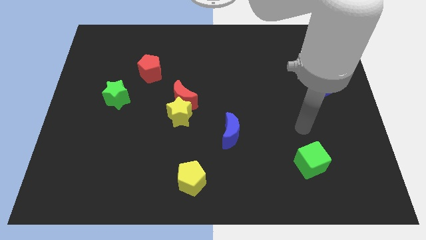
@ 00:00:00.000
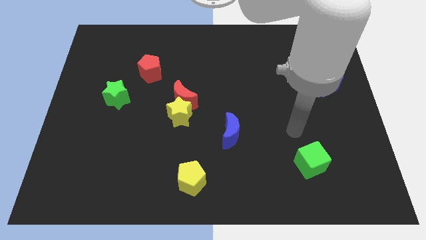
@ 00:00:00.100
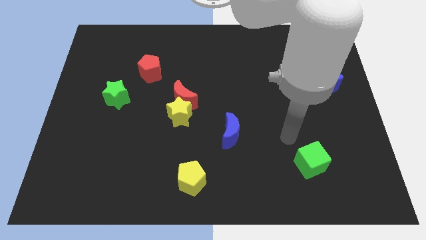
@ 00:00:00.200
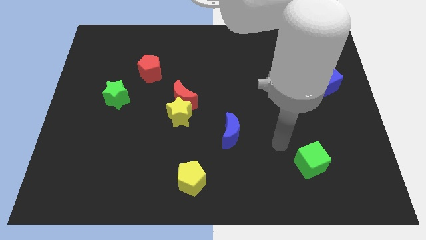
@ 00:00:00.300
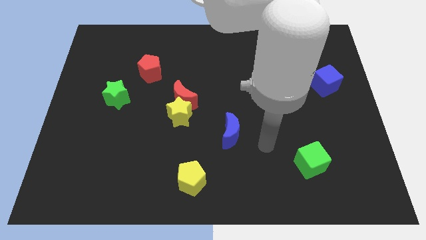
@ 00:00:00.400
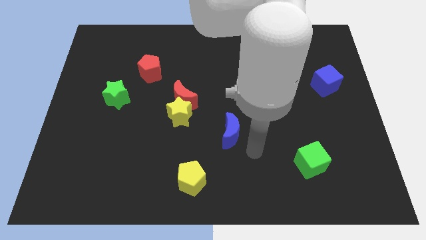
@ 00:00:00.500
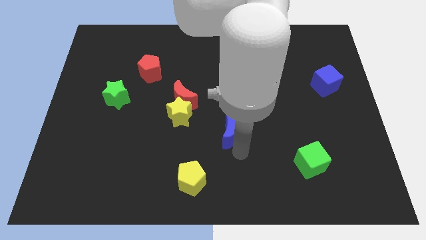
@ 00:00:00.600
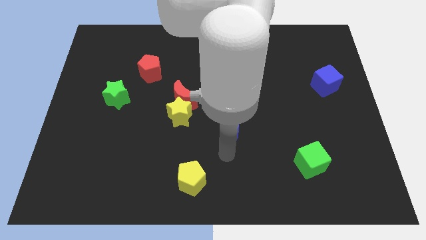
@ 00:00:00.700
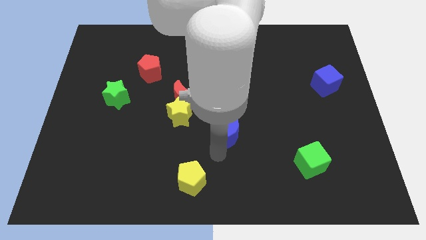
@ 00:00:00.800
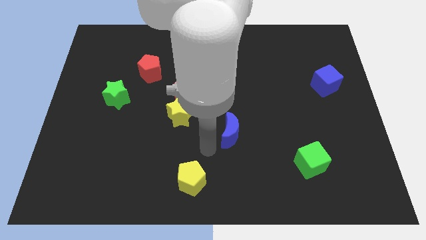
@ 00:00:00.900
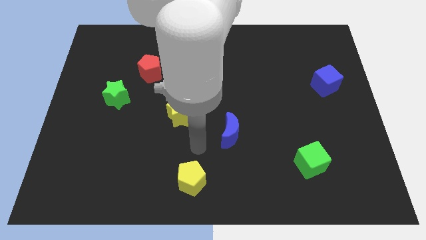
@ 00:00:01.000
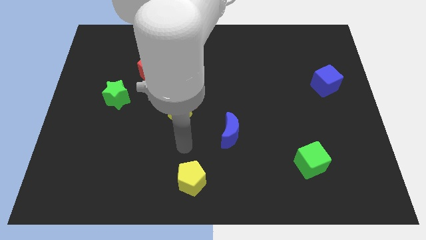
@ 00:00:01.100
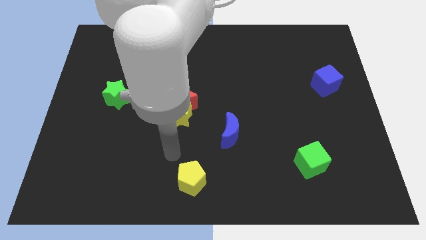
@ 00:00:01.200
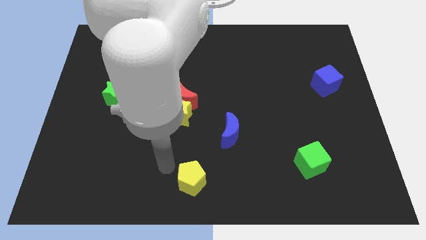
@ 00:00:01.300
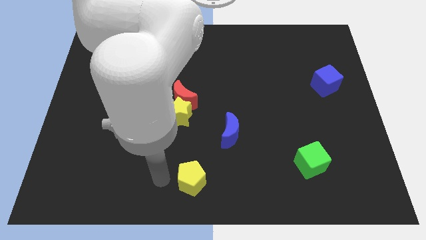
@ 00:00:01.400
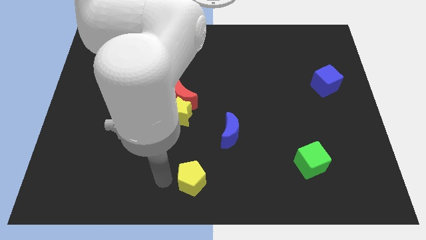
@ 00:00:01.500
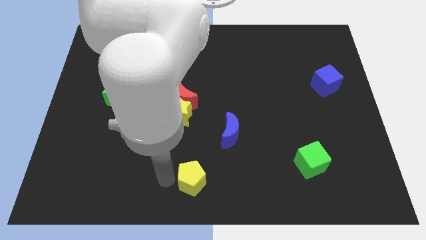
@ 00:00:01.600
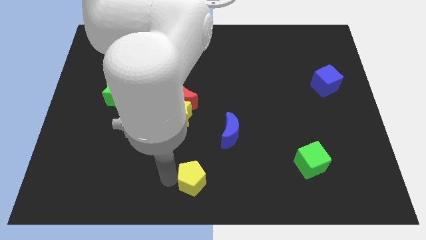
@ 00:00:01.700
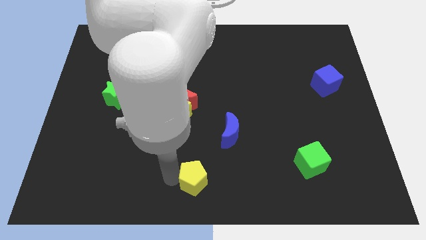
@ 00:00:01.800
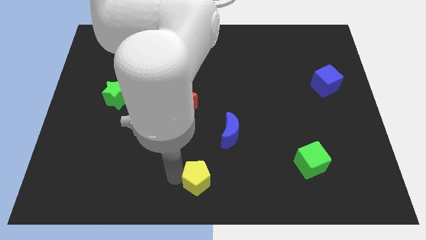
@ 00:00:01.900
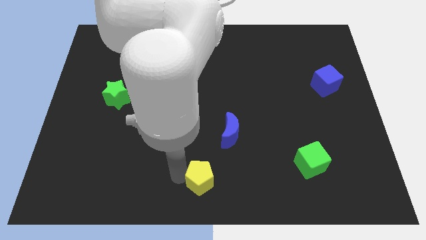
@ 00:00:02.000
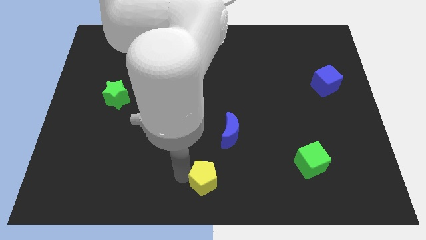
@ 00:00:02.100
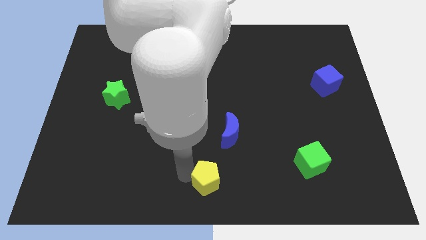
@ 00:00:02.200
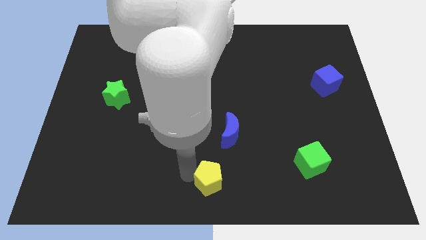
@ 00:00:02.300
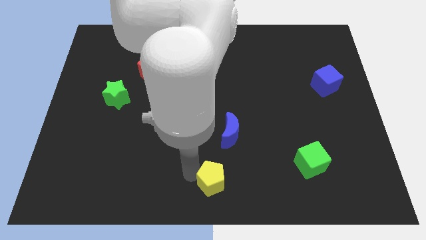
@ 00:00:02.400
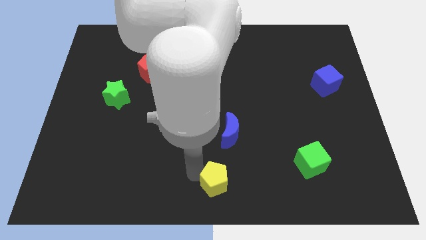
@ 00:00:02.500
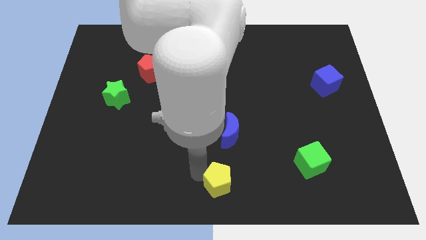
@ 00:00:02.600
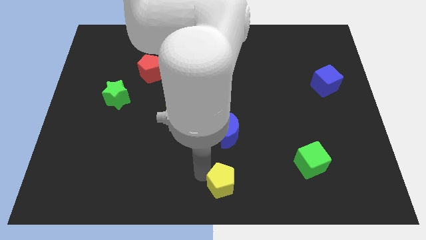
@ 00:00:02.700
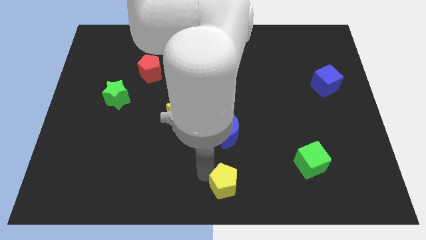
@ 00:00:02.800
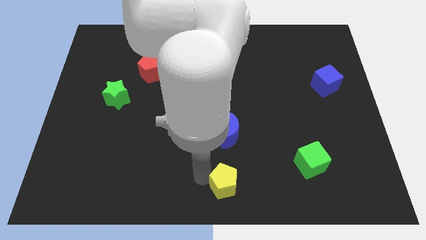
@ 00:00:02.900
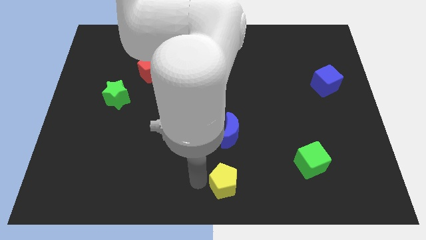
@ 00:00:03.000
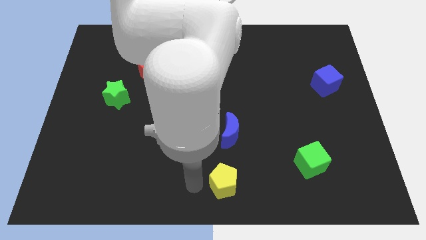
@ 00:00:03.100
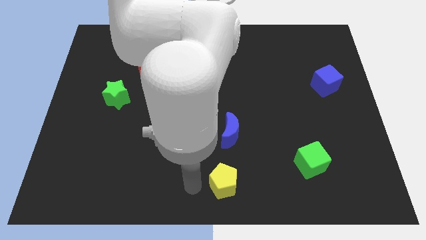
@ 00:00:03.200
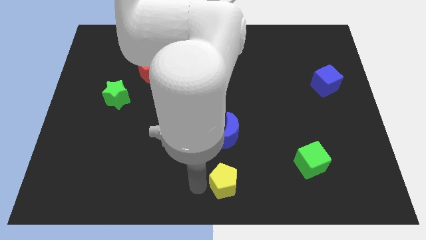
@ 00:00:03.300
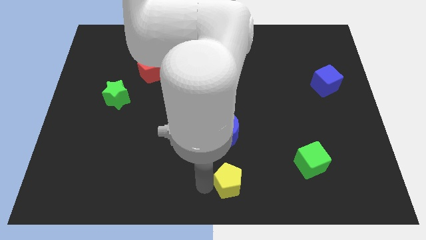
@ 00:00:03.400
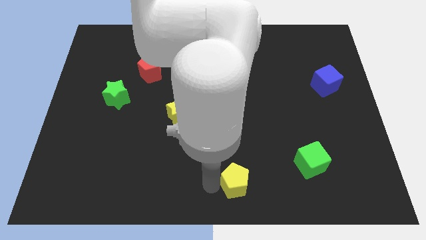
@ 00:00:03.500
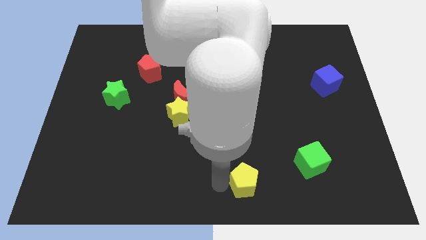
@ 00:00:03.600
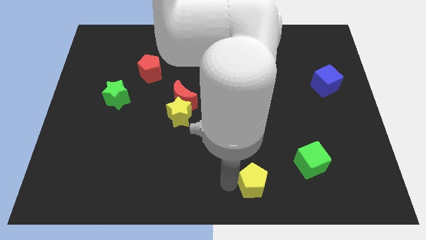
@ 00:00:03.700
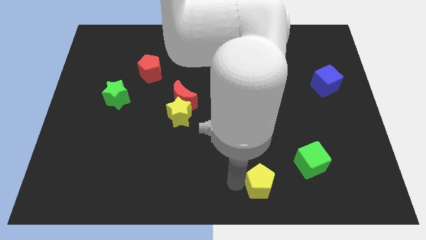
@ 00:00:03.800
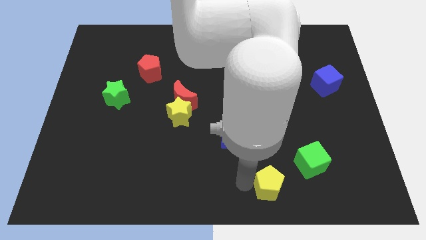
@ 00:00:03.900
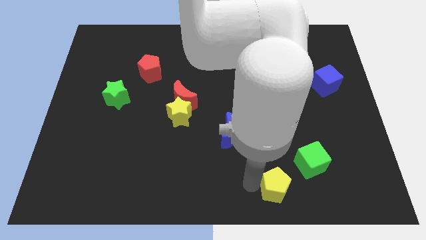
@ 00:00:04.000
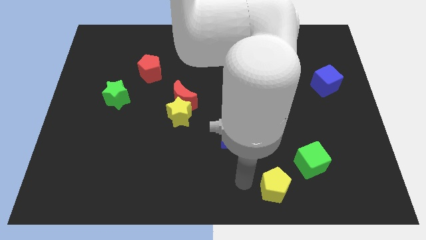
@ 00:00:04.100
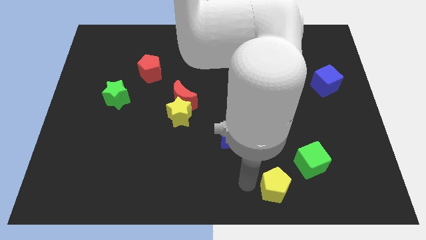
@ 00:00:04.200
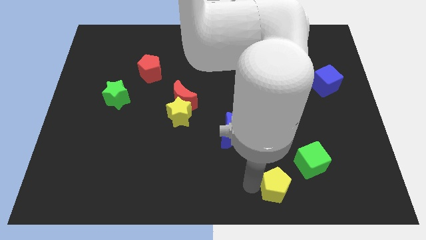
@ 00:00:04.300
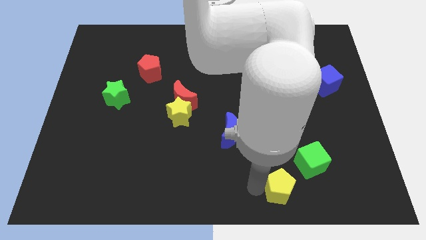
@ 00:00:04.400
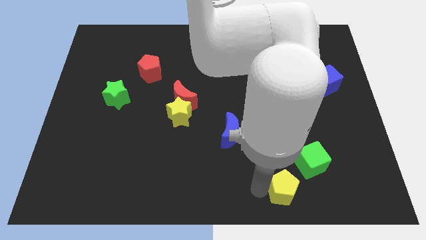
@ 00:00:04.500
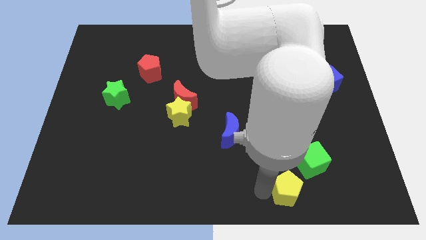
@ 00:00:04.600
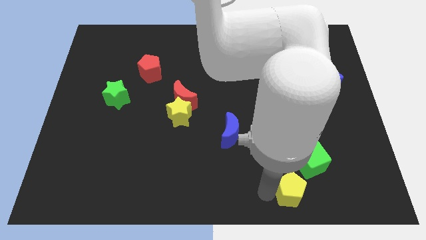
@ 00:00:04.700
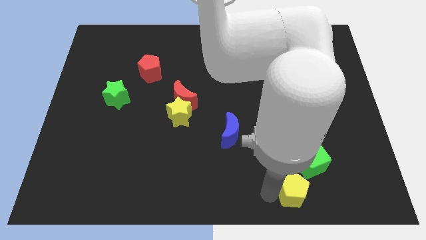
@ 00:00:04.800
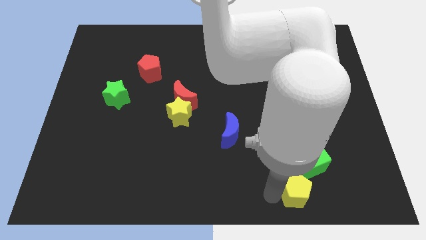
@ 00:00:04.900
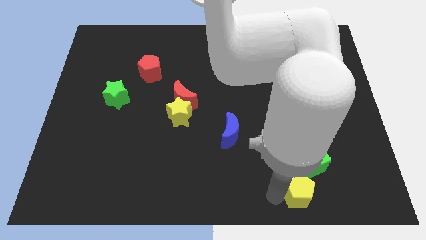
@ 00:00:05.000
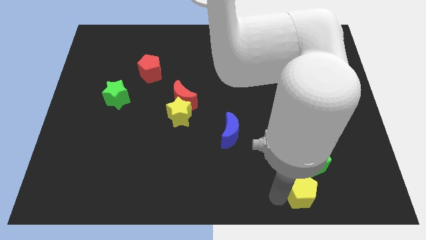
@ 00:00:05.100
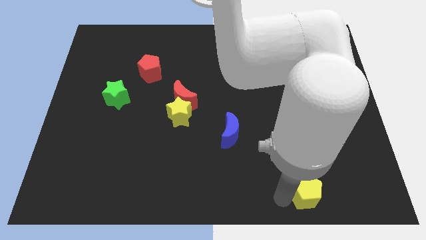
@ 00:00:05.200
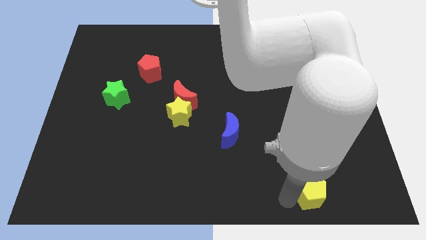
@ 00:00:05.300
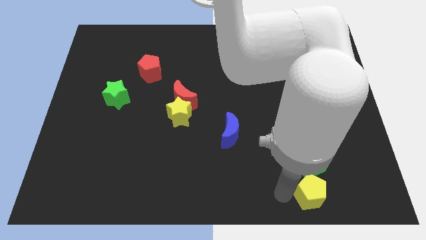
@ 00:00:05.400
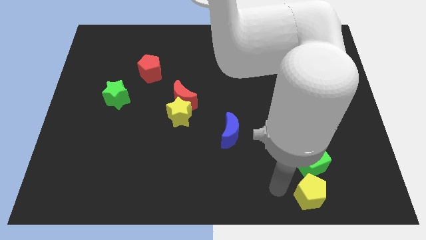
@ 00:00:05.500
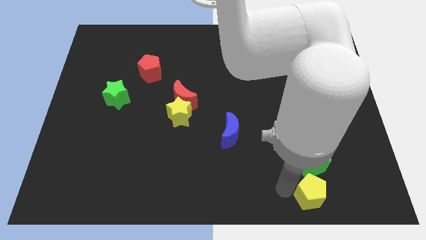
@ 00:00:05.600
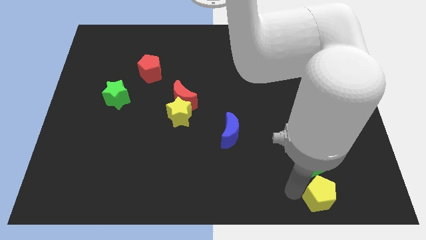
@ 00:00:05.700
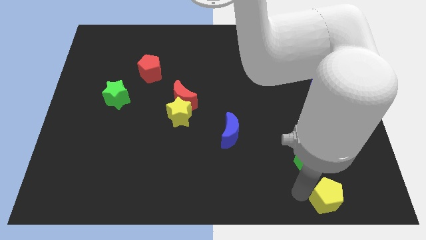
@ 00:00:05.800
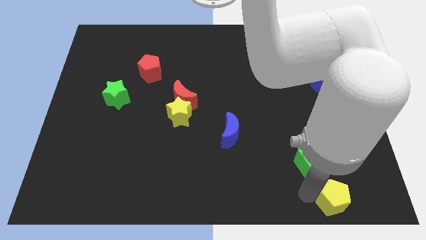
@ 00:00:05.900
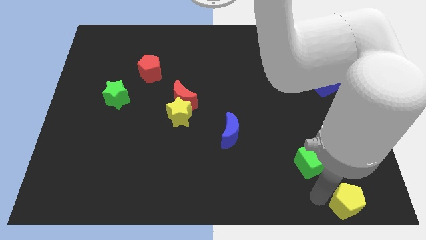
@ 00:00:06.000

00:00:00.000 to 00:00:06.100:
slide the yellow pentagon to the bottom right corner

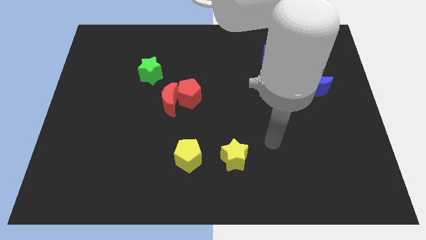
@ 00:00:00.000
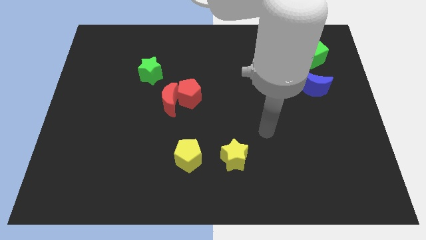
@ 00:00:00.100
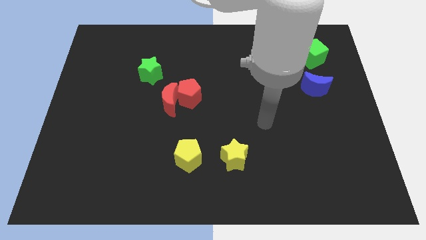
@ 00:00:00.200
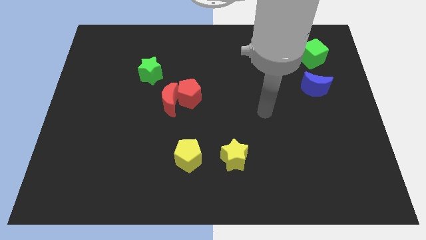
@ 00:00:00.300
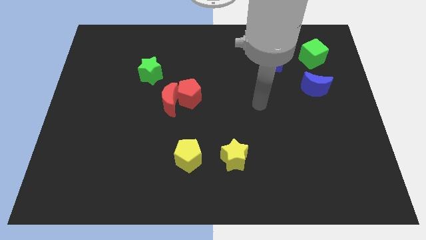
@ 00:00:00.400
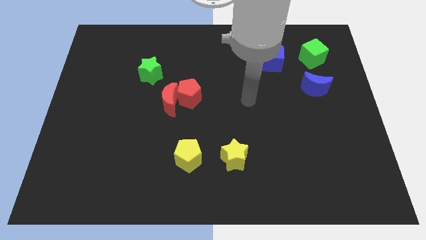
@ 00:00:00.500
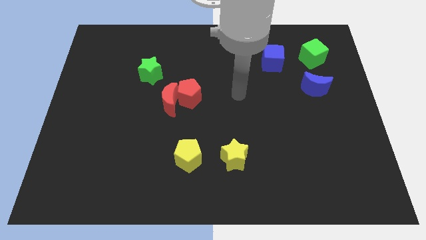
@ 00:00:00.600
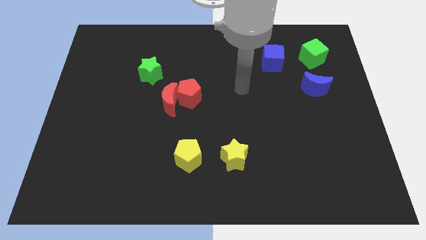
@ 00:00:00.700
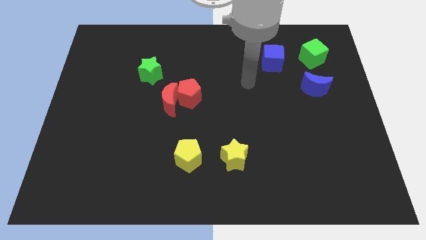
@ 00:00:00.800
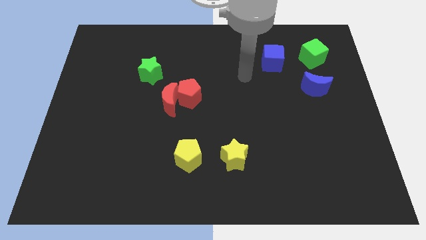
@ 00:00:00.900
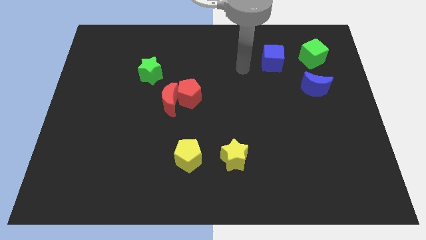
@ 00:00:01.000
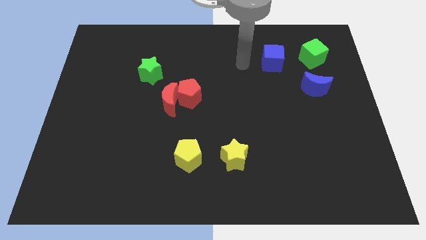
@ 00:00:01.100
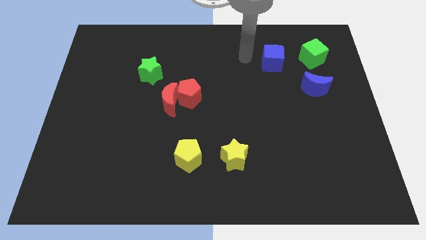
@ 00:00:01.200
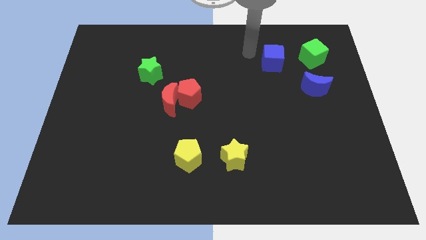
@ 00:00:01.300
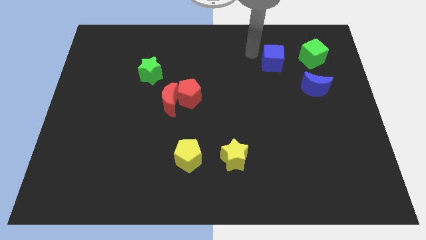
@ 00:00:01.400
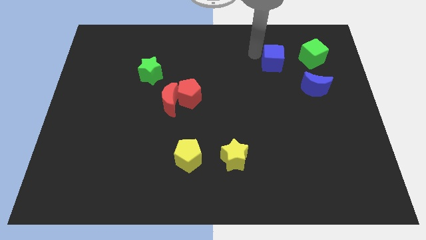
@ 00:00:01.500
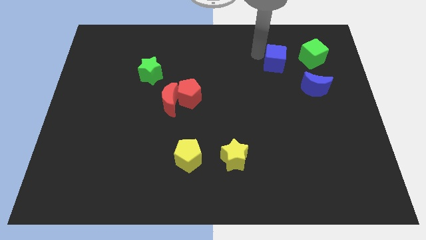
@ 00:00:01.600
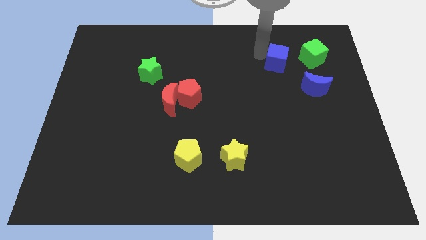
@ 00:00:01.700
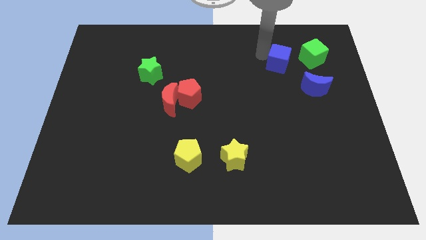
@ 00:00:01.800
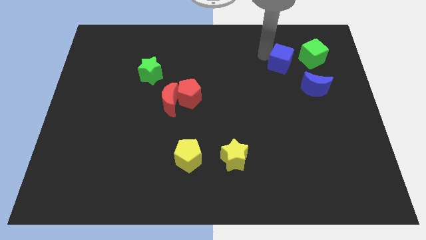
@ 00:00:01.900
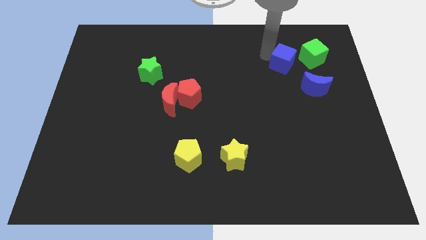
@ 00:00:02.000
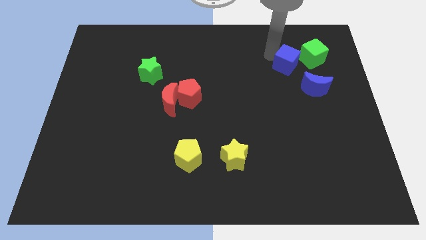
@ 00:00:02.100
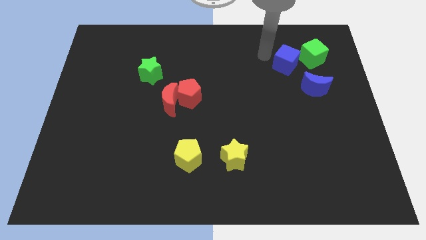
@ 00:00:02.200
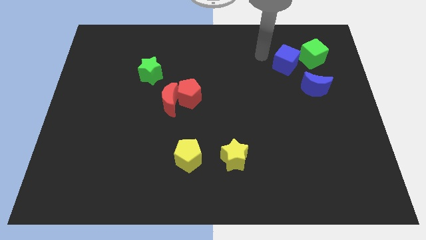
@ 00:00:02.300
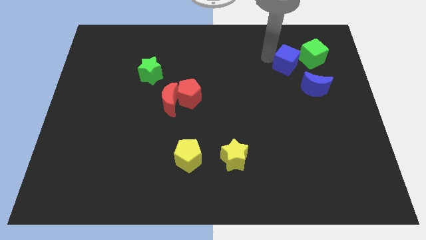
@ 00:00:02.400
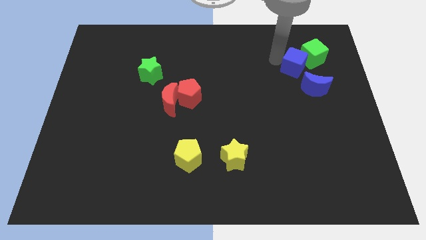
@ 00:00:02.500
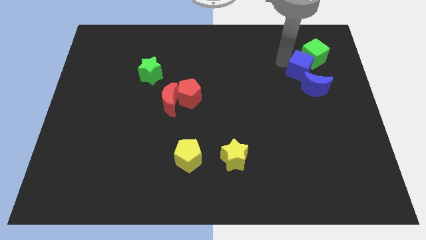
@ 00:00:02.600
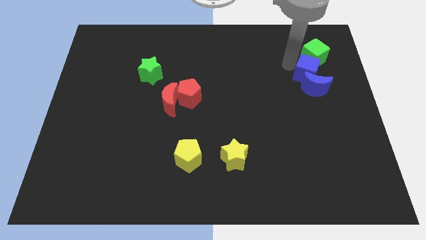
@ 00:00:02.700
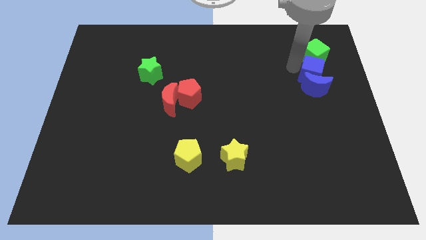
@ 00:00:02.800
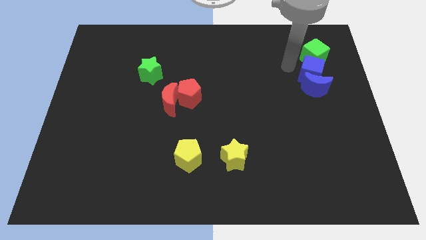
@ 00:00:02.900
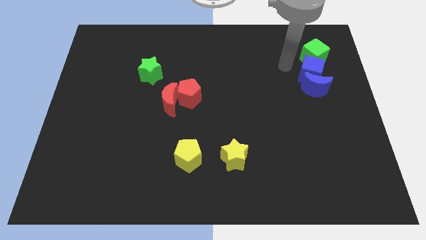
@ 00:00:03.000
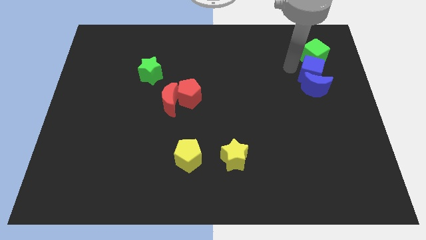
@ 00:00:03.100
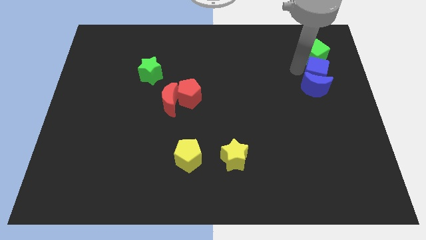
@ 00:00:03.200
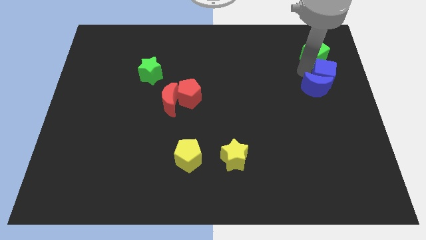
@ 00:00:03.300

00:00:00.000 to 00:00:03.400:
put the blue cube to the right side
